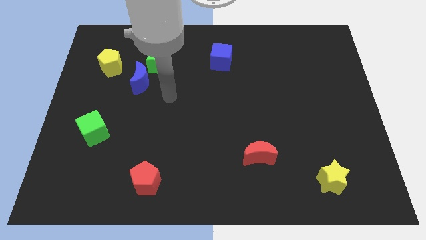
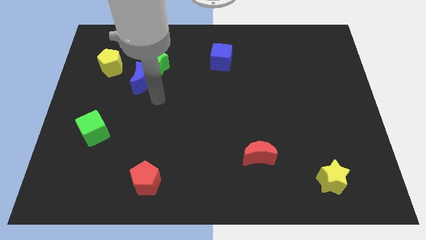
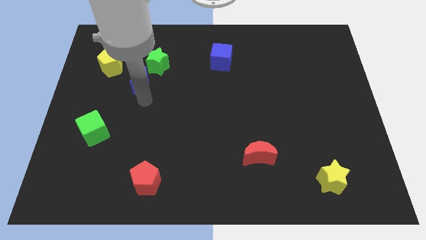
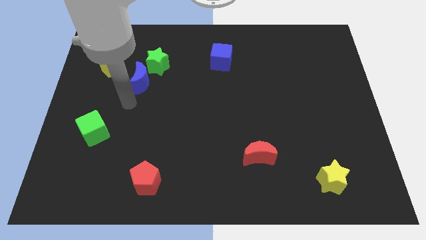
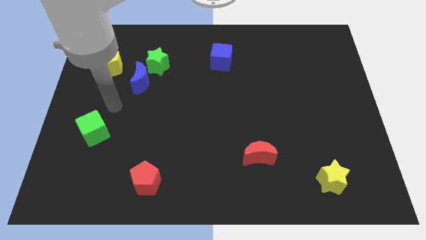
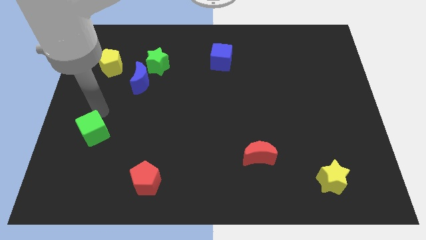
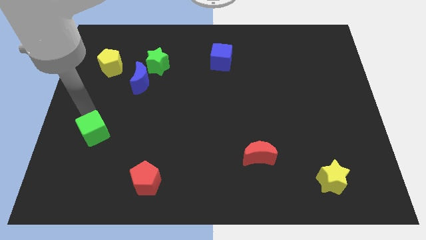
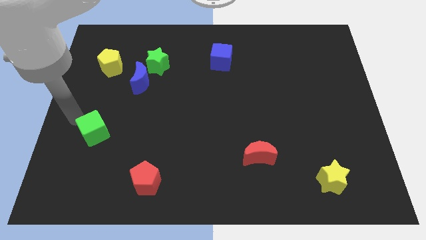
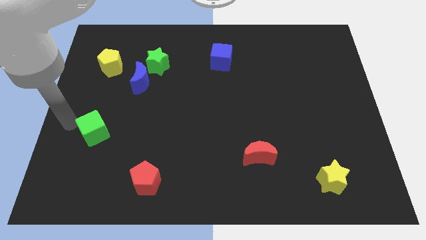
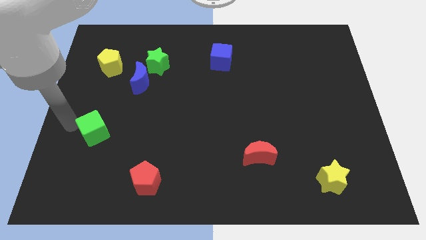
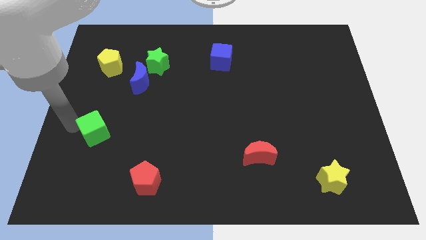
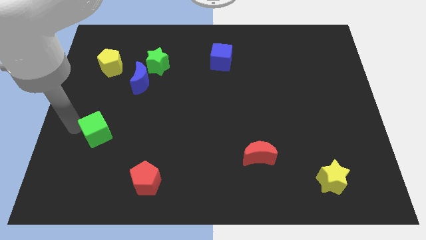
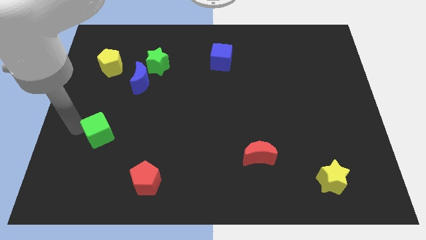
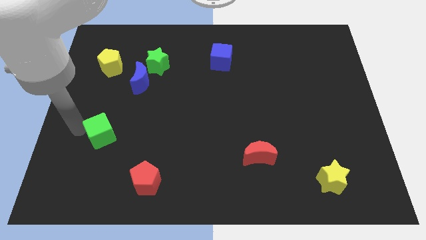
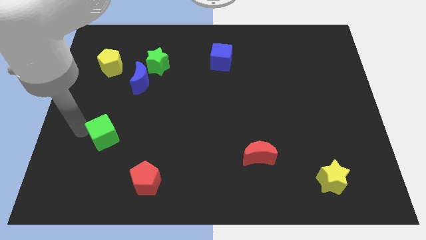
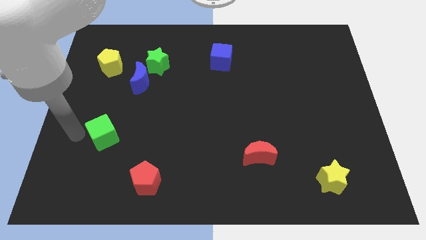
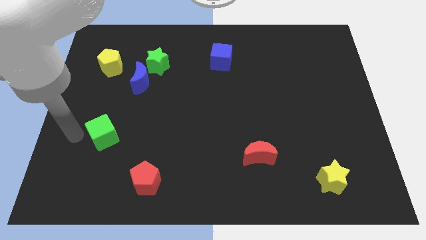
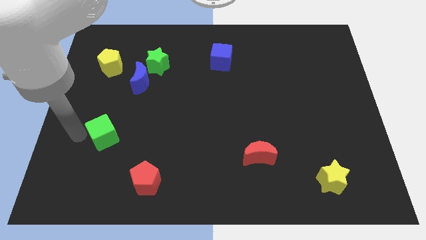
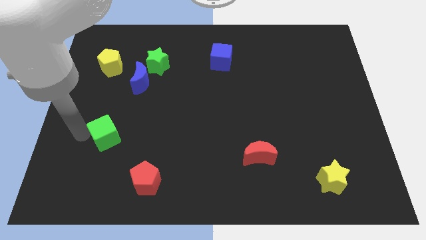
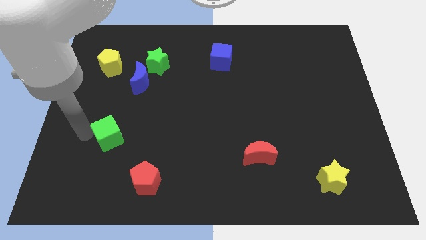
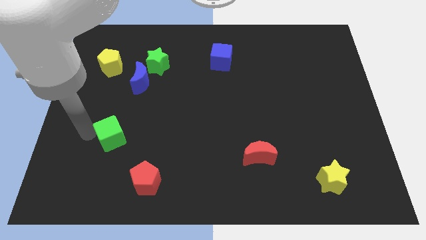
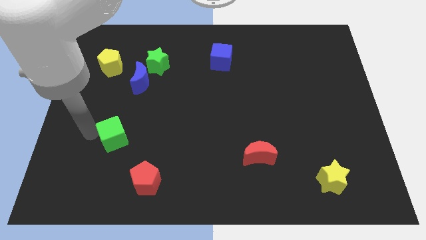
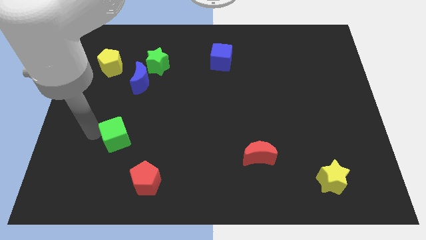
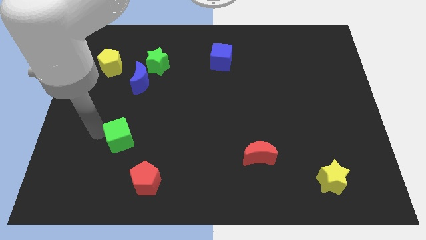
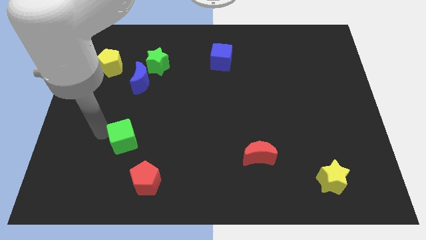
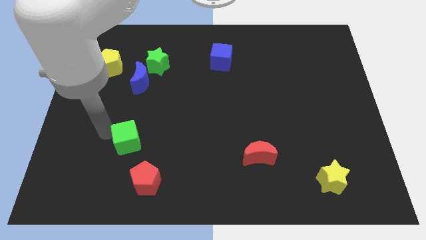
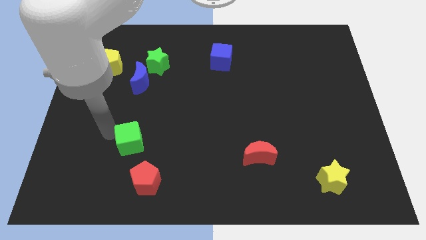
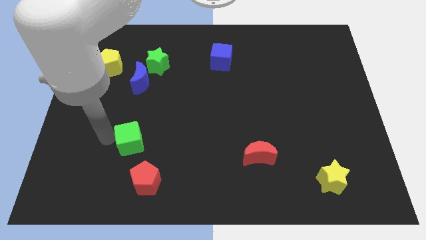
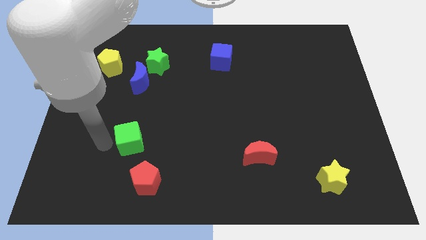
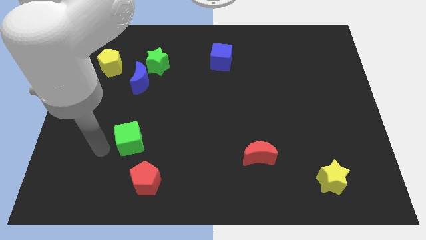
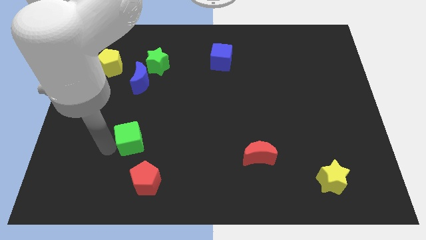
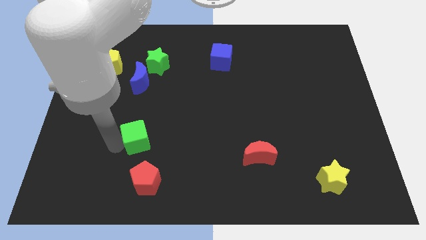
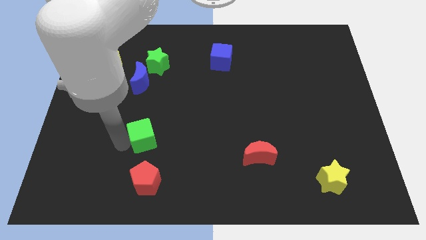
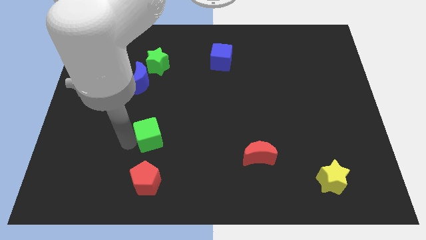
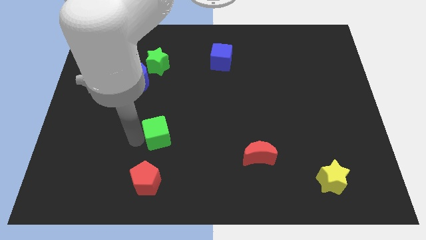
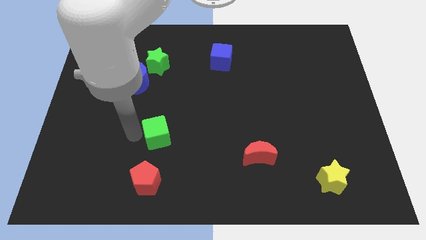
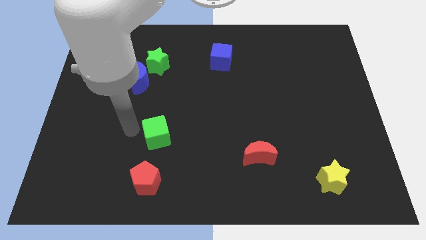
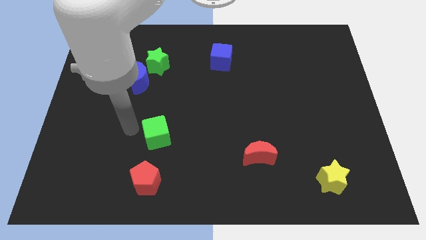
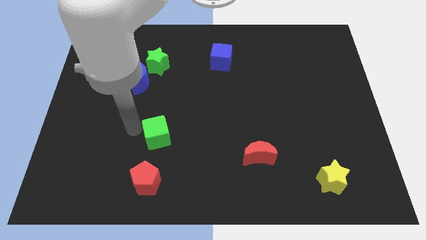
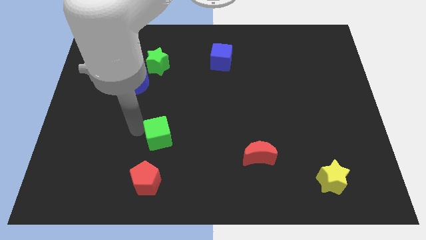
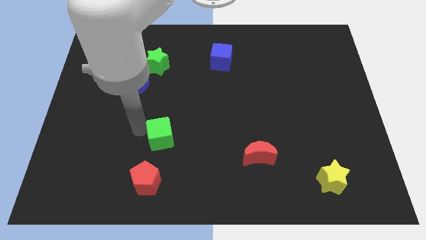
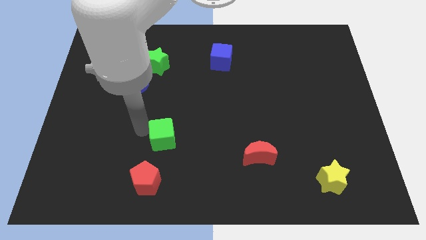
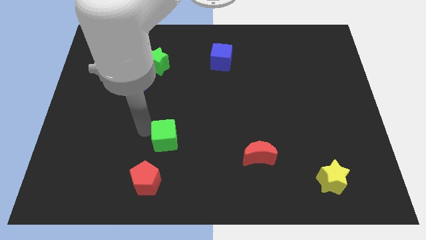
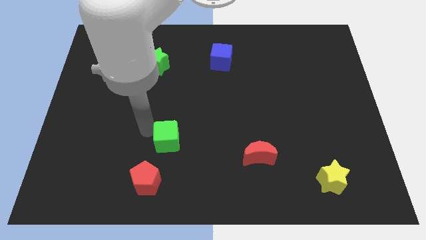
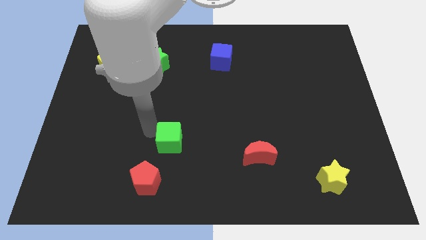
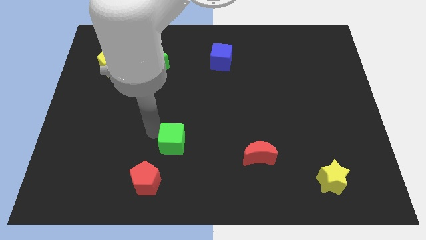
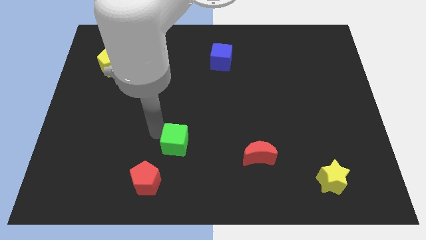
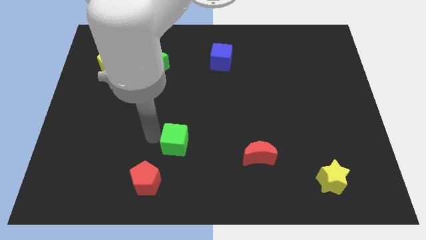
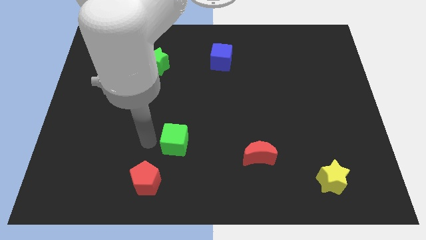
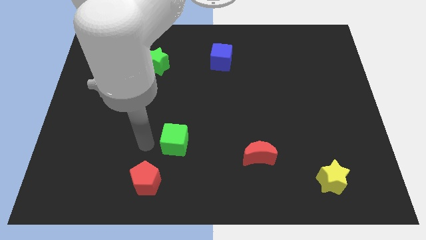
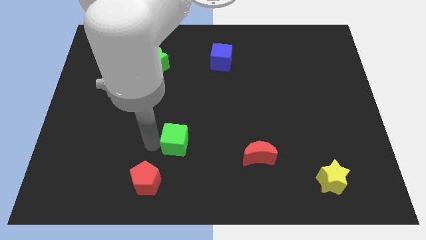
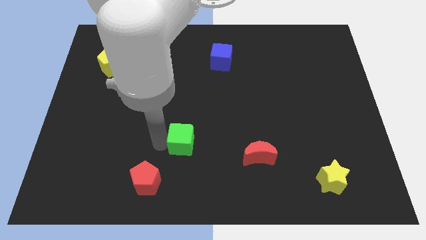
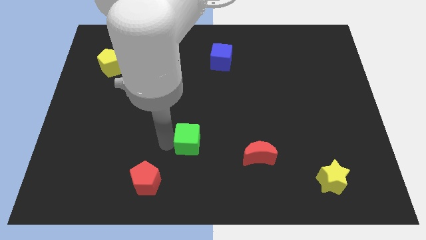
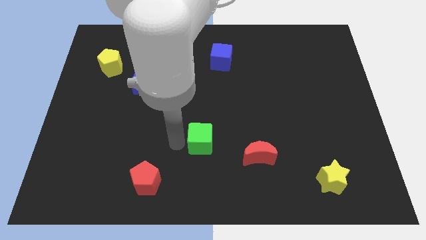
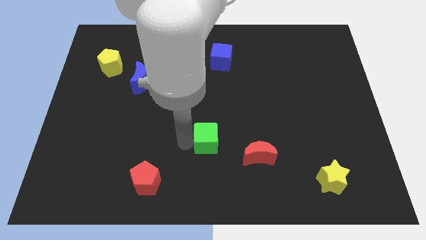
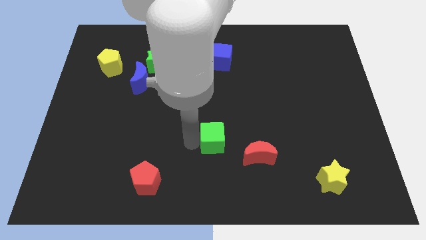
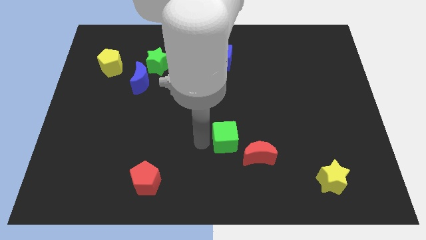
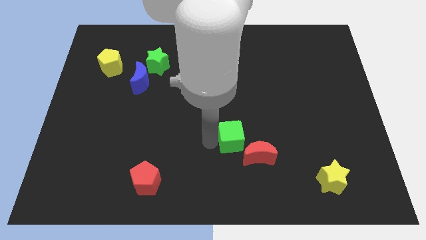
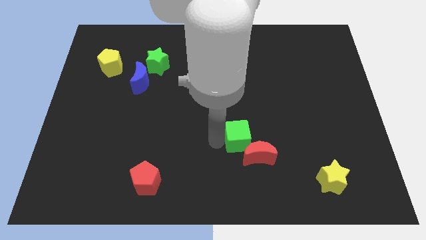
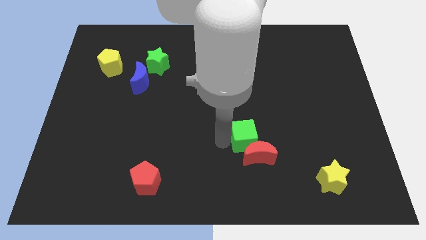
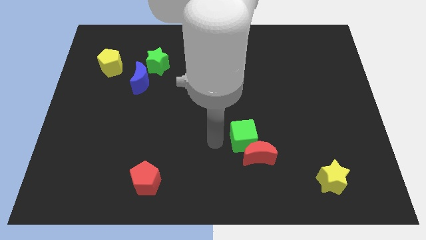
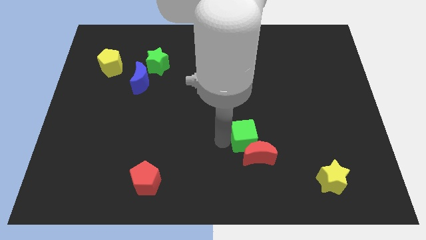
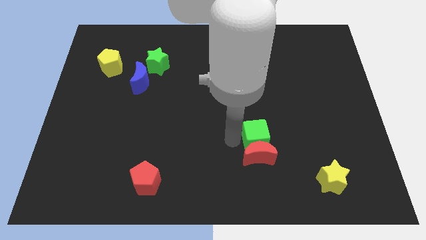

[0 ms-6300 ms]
push the green cube diagonally up and to the right of the red moon
